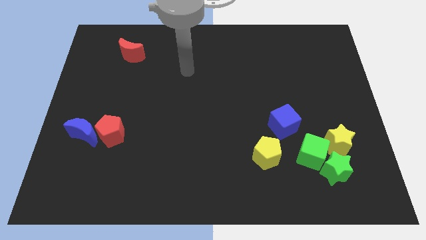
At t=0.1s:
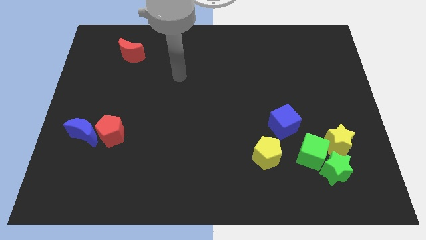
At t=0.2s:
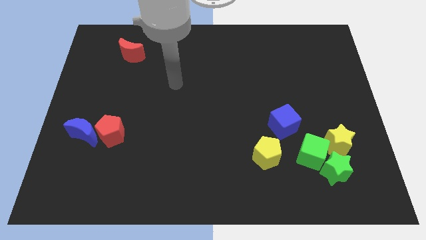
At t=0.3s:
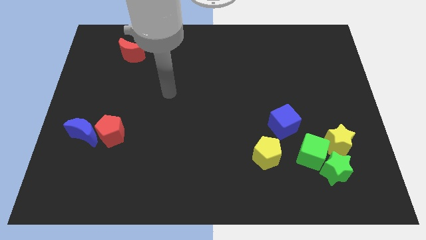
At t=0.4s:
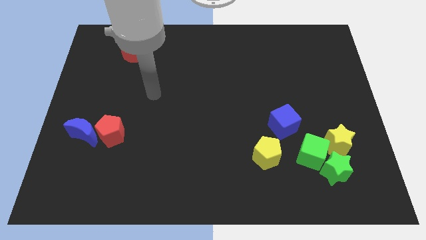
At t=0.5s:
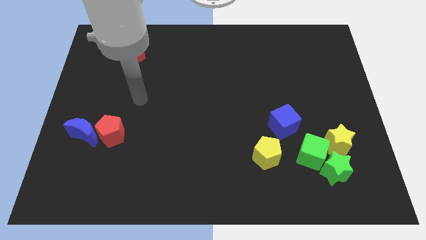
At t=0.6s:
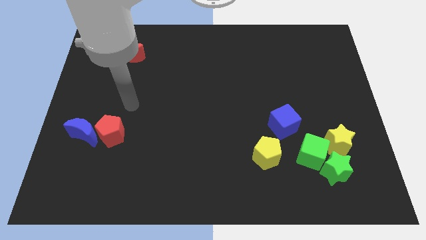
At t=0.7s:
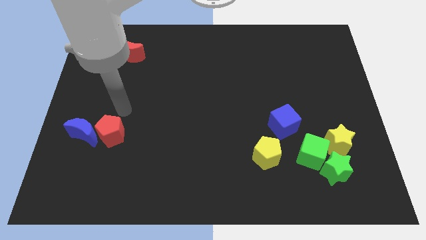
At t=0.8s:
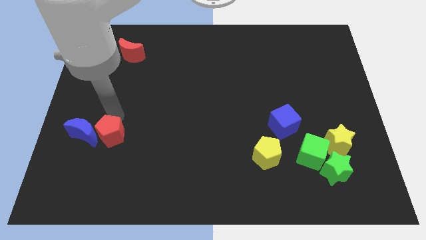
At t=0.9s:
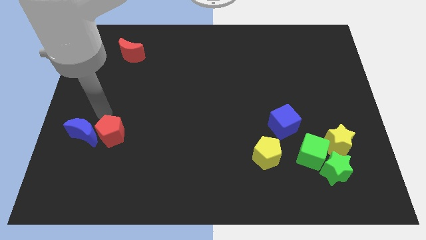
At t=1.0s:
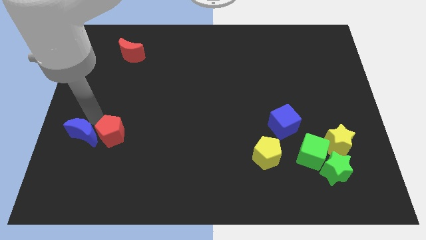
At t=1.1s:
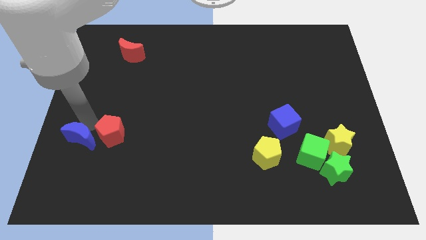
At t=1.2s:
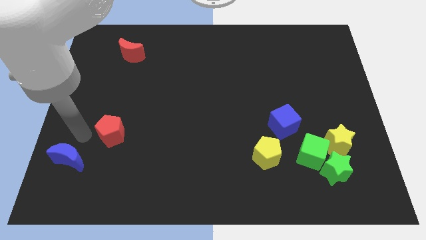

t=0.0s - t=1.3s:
move the red pentagon away from the blue moon

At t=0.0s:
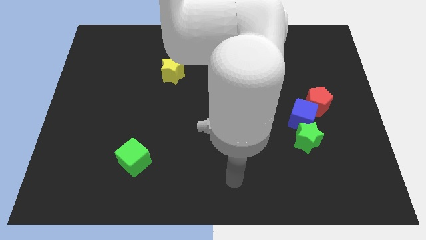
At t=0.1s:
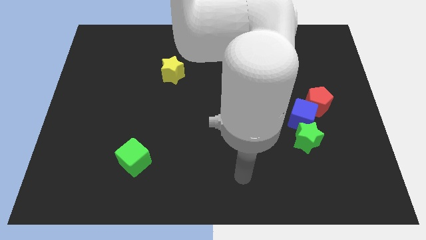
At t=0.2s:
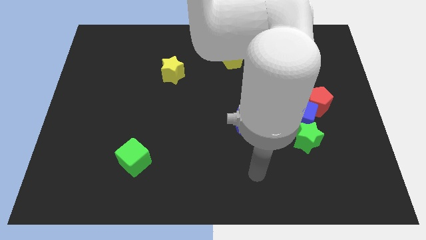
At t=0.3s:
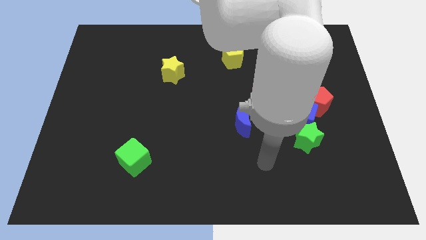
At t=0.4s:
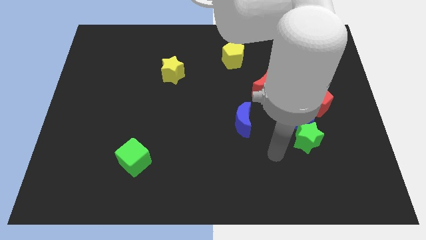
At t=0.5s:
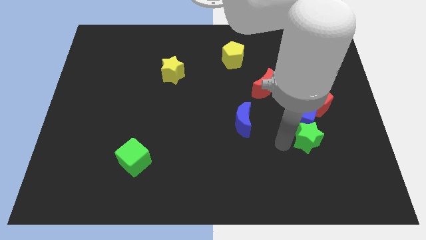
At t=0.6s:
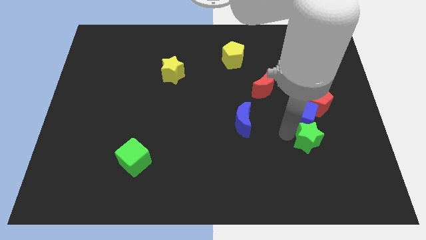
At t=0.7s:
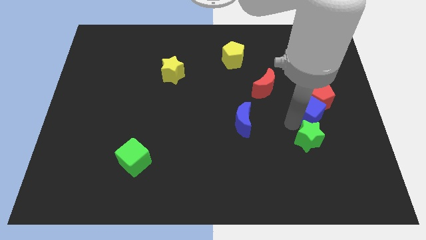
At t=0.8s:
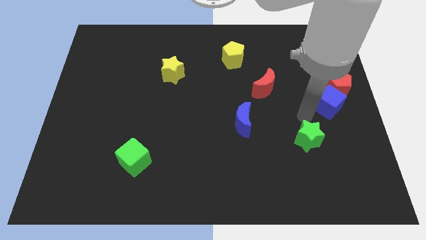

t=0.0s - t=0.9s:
move the green star away from the blue cube

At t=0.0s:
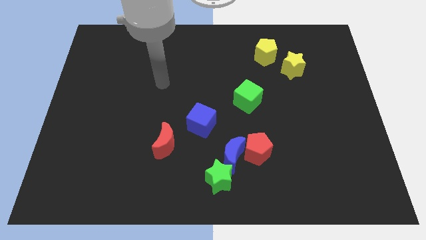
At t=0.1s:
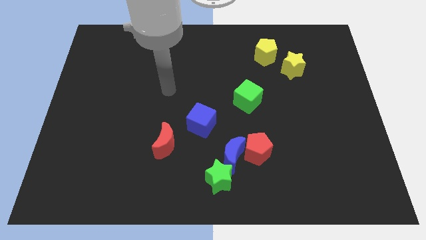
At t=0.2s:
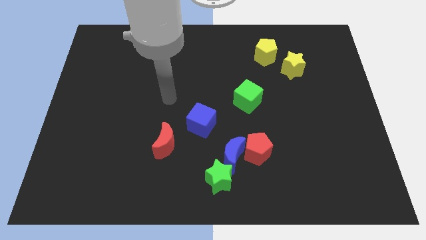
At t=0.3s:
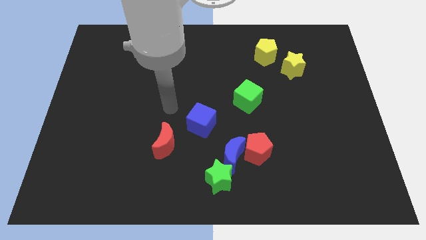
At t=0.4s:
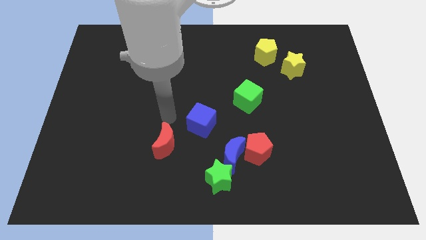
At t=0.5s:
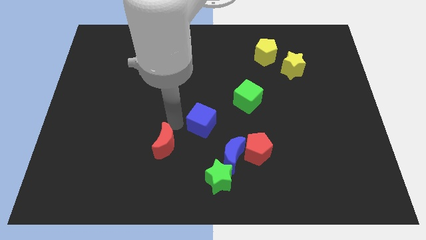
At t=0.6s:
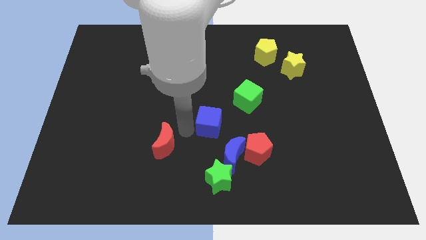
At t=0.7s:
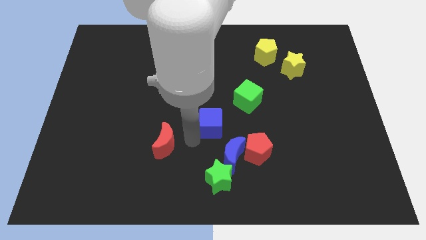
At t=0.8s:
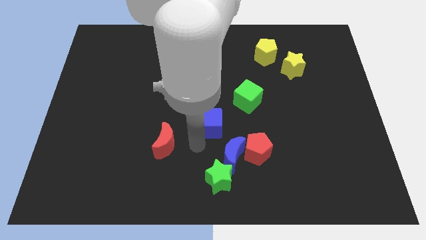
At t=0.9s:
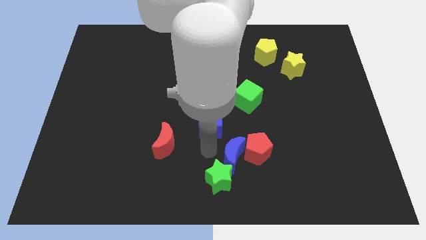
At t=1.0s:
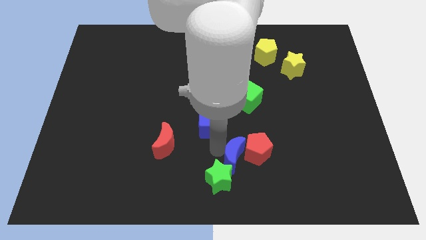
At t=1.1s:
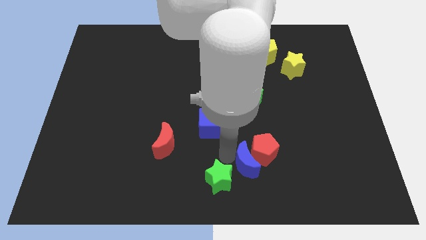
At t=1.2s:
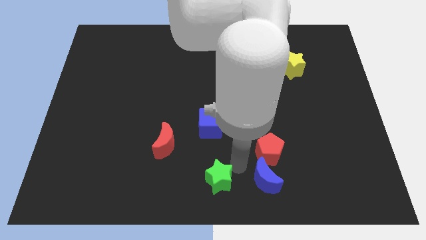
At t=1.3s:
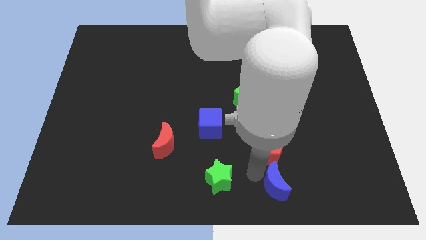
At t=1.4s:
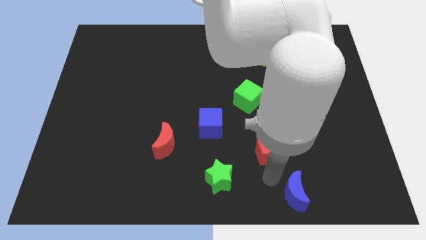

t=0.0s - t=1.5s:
separate the red pentagon from the blue moon

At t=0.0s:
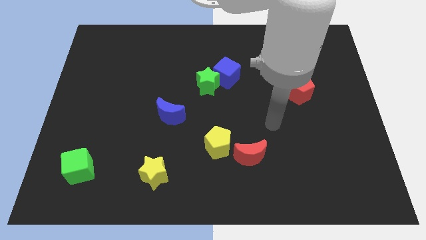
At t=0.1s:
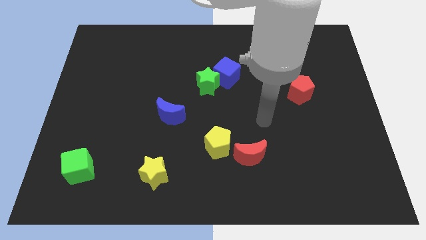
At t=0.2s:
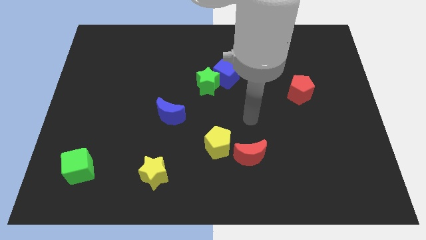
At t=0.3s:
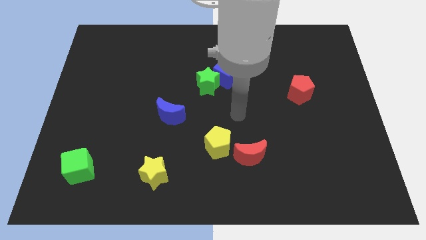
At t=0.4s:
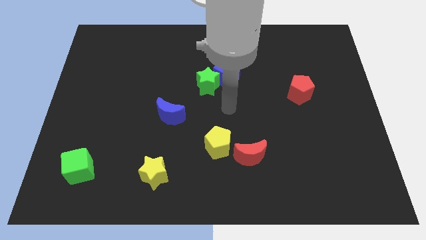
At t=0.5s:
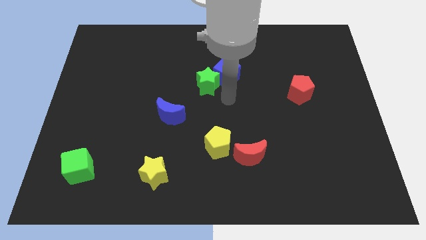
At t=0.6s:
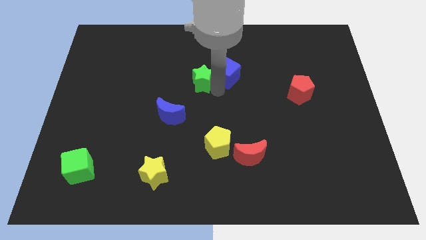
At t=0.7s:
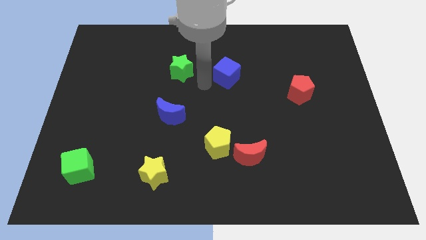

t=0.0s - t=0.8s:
move the blue cube away from the green star

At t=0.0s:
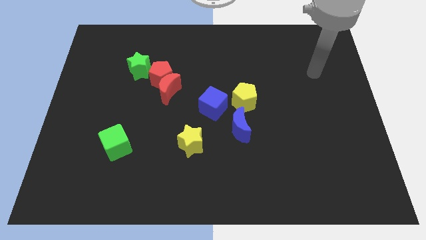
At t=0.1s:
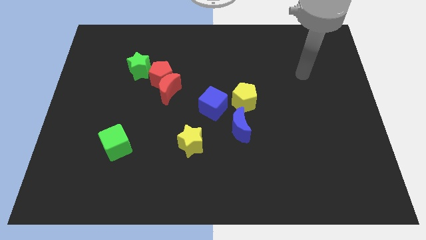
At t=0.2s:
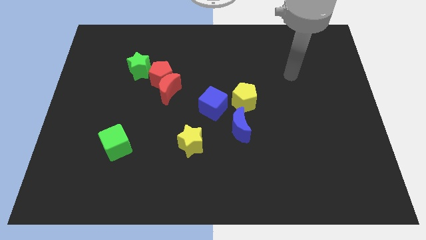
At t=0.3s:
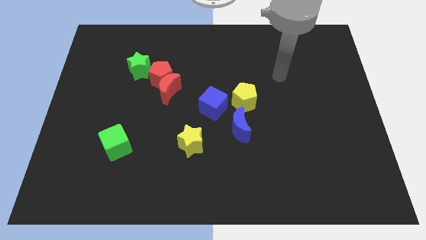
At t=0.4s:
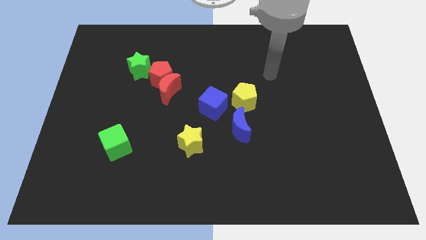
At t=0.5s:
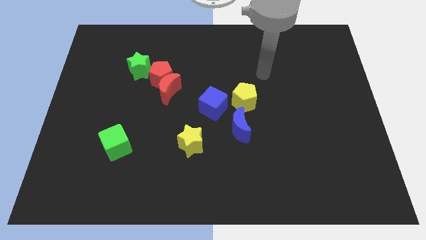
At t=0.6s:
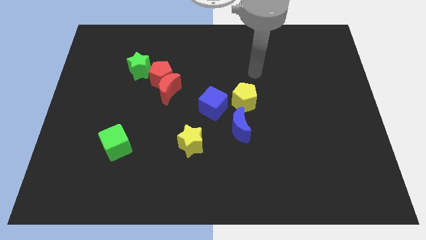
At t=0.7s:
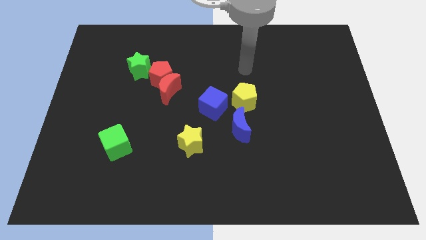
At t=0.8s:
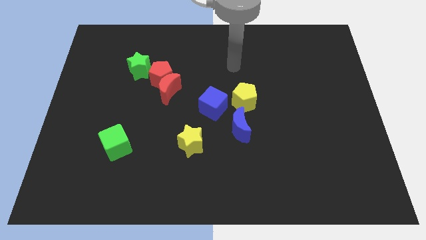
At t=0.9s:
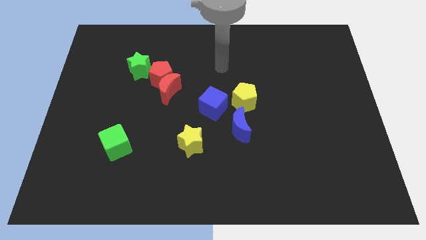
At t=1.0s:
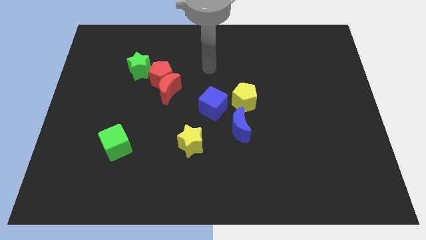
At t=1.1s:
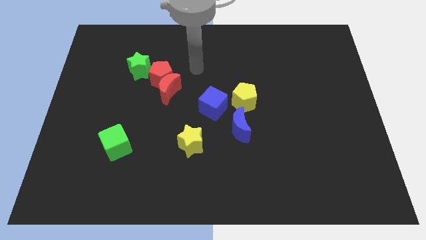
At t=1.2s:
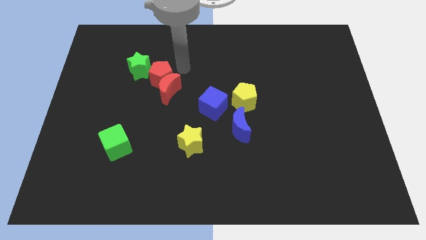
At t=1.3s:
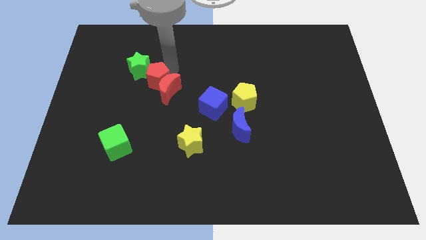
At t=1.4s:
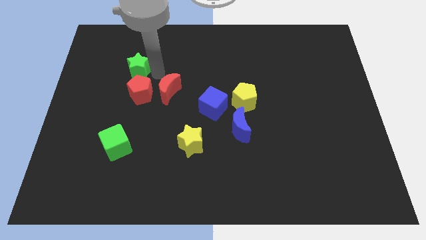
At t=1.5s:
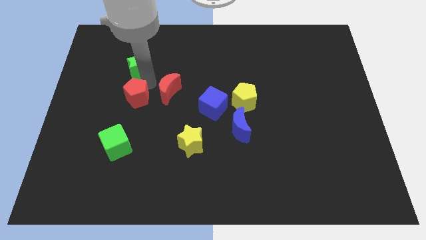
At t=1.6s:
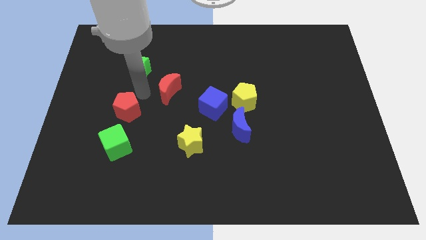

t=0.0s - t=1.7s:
separate the red moon from the red pentagon

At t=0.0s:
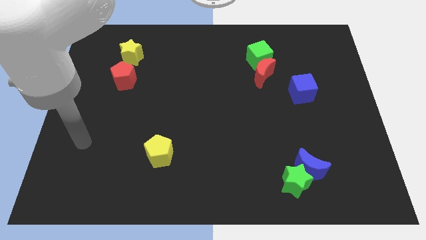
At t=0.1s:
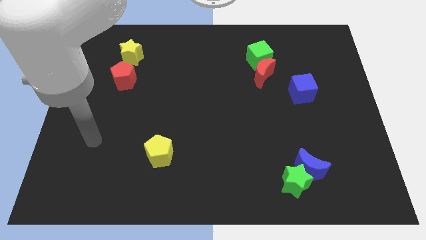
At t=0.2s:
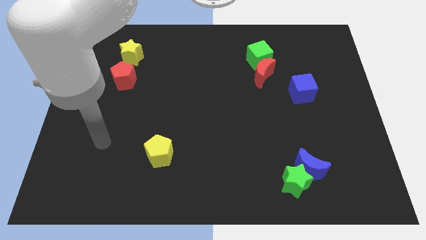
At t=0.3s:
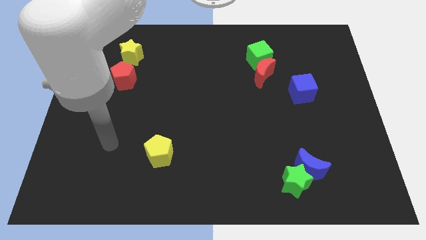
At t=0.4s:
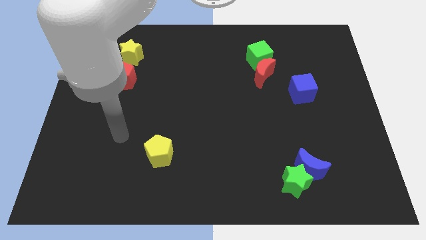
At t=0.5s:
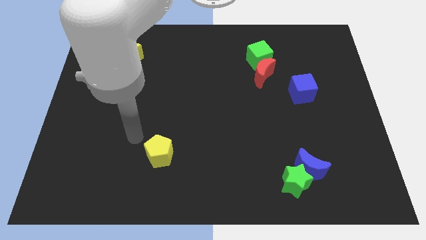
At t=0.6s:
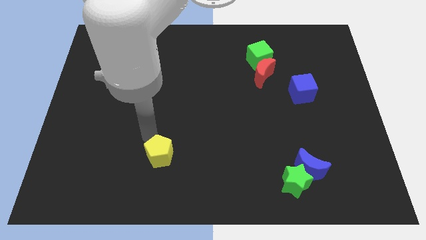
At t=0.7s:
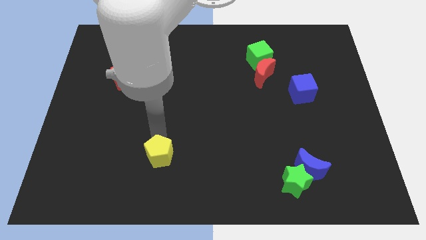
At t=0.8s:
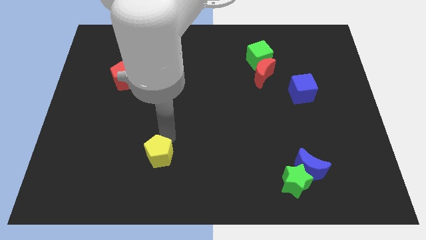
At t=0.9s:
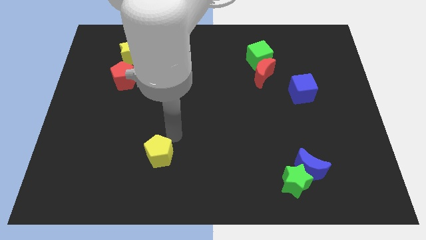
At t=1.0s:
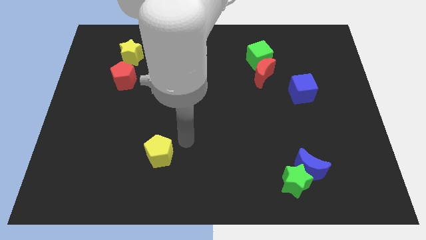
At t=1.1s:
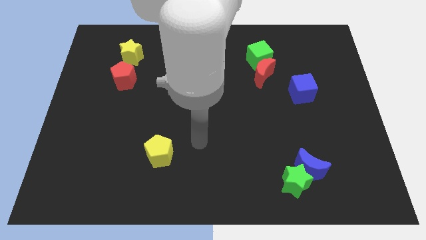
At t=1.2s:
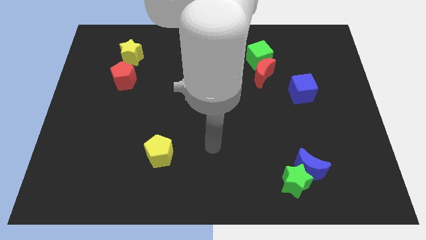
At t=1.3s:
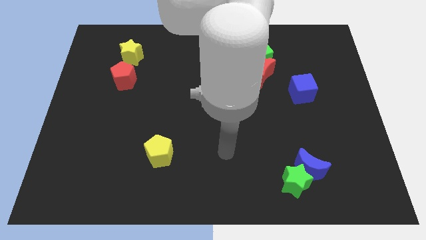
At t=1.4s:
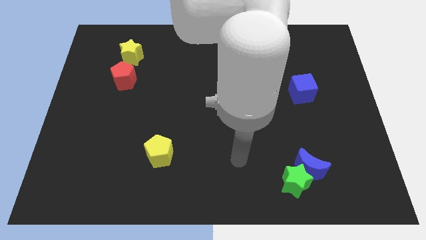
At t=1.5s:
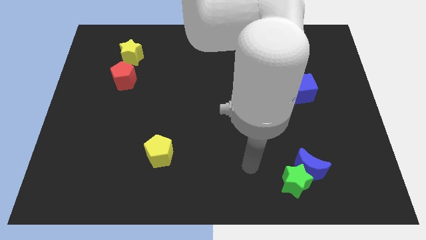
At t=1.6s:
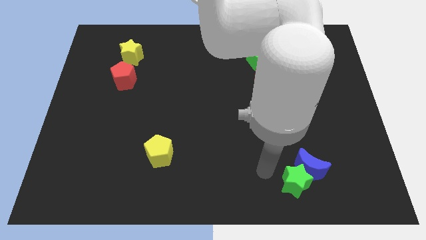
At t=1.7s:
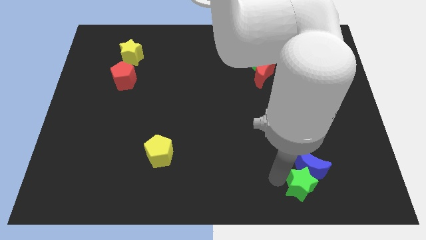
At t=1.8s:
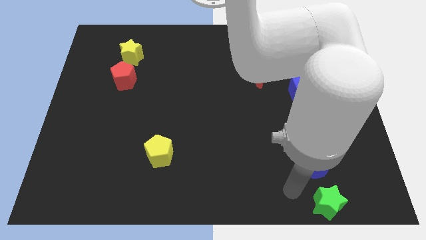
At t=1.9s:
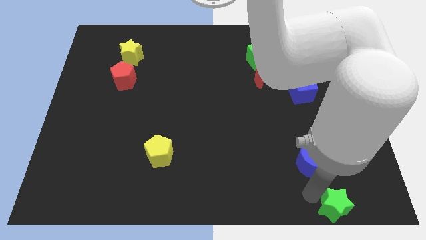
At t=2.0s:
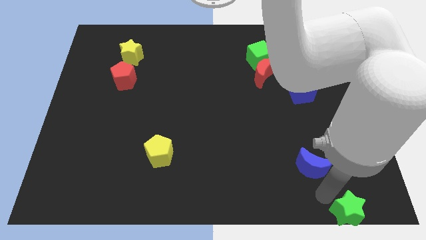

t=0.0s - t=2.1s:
pull the blue moon apart from the green star

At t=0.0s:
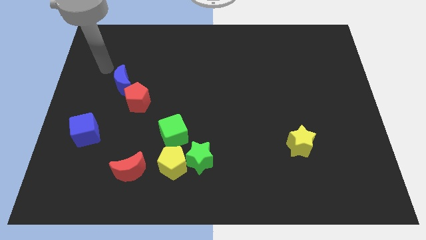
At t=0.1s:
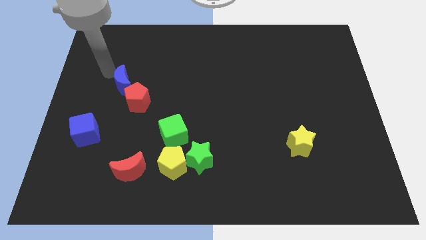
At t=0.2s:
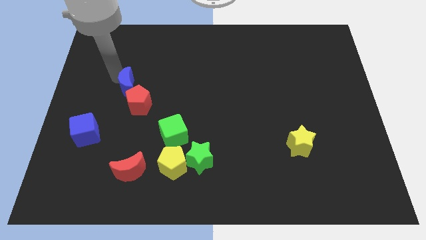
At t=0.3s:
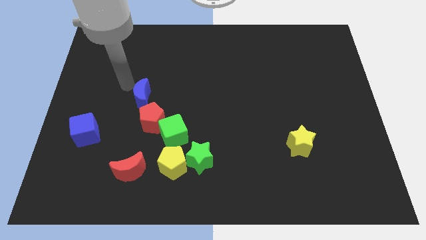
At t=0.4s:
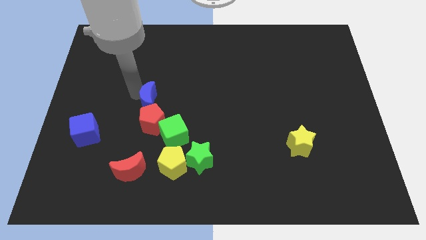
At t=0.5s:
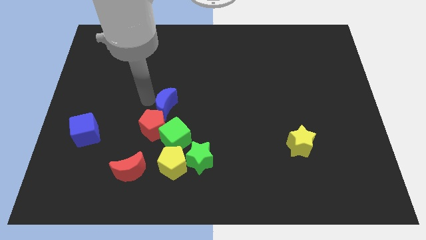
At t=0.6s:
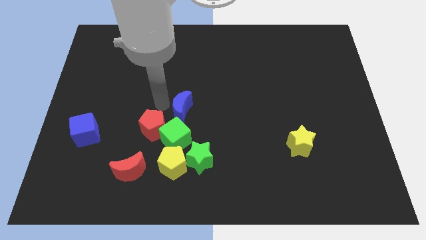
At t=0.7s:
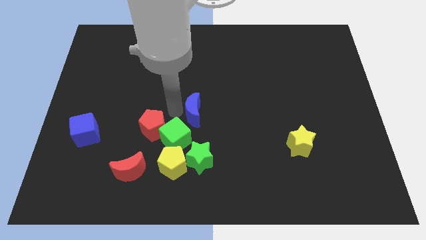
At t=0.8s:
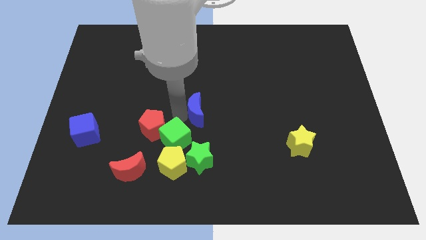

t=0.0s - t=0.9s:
pull the red pentagon apart from the blue moon

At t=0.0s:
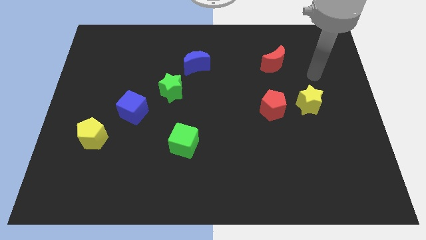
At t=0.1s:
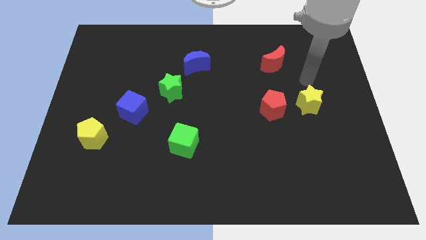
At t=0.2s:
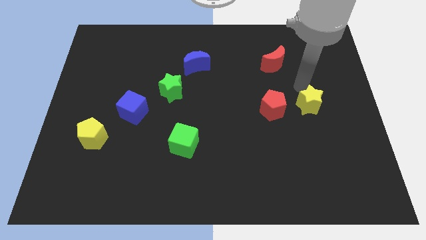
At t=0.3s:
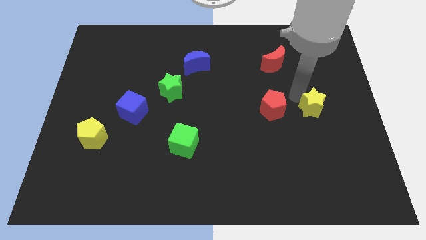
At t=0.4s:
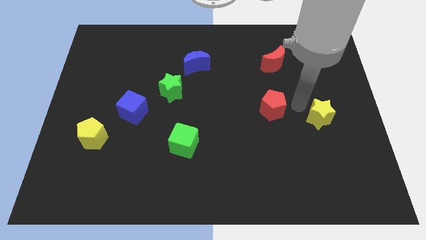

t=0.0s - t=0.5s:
move the red pentagon away from the yellow star
